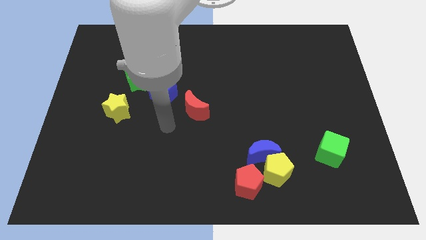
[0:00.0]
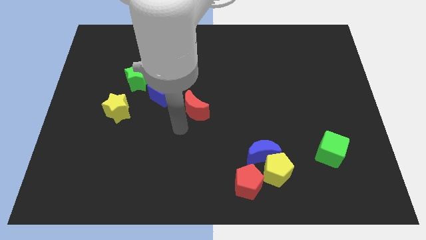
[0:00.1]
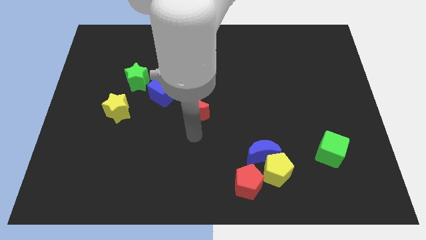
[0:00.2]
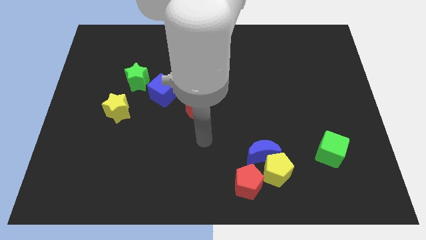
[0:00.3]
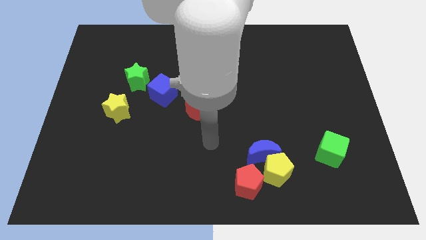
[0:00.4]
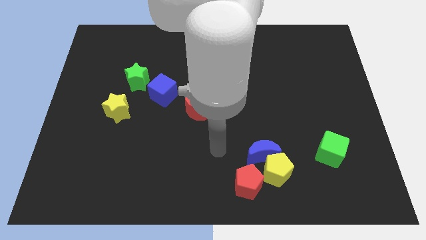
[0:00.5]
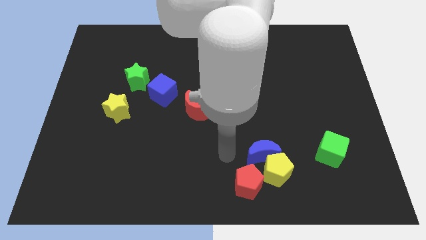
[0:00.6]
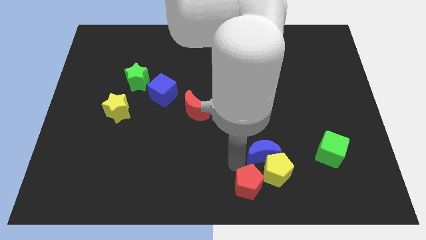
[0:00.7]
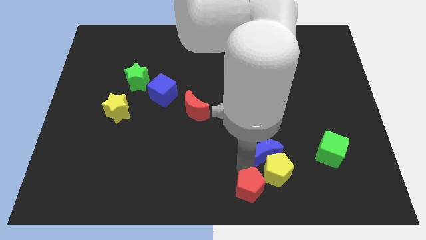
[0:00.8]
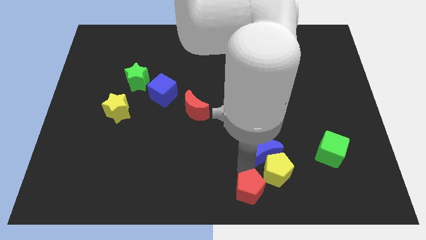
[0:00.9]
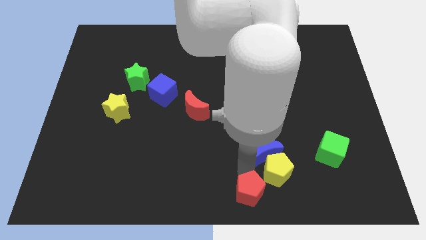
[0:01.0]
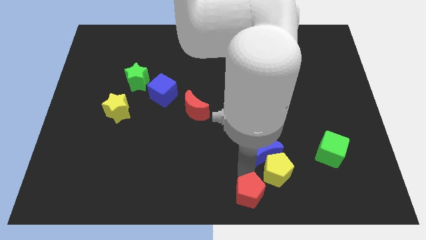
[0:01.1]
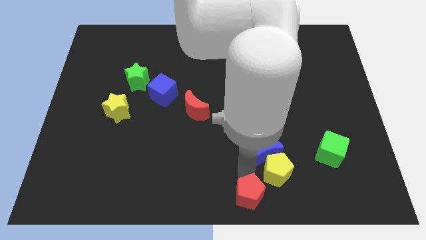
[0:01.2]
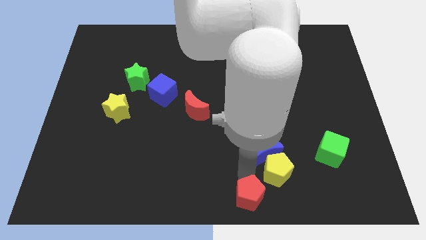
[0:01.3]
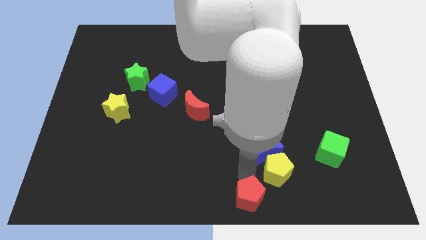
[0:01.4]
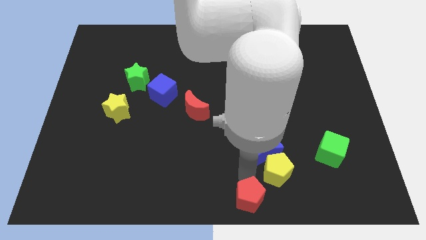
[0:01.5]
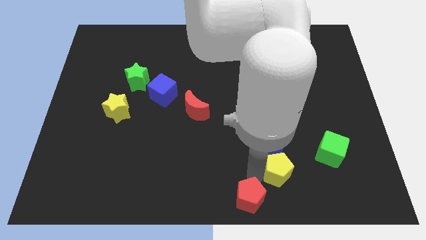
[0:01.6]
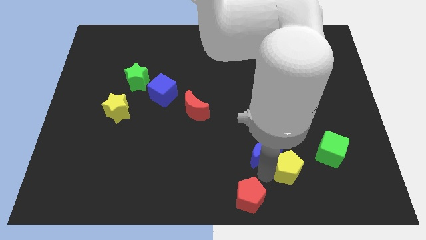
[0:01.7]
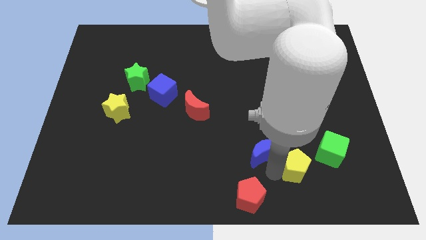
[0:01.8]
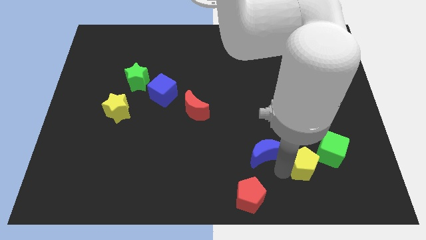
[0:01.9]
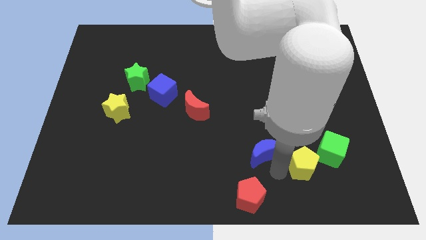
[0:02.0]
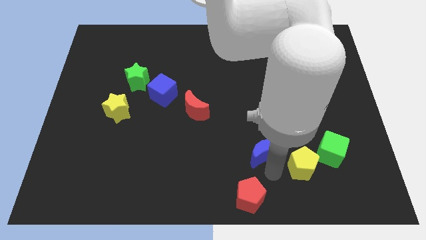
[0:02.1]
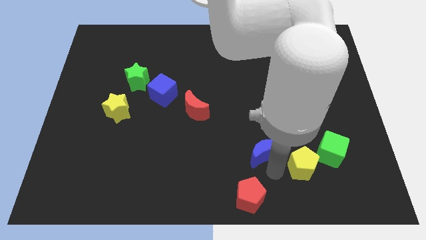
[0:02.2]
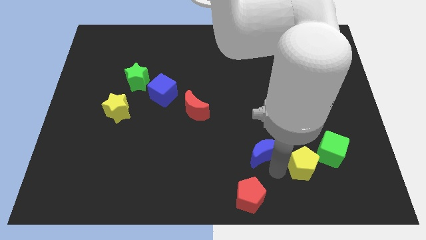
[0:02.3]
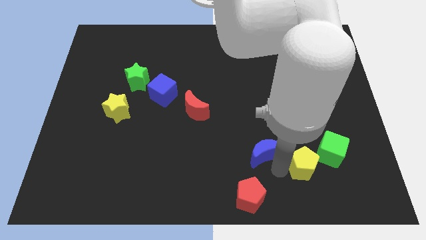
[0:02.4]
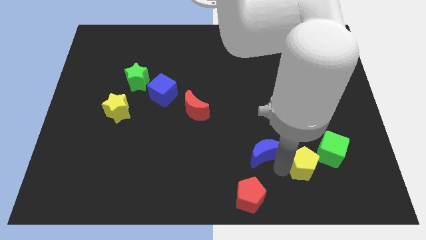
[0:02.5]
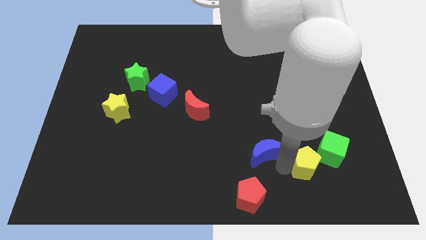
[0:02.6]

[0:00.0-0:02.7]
separate the yellow pentagon from the blue moon and red pentagon

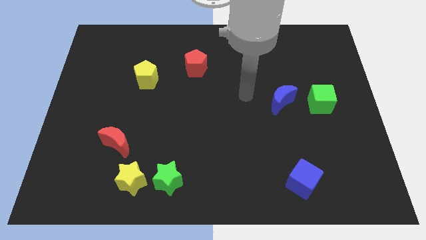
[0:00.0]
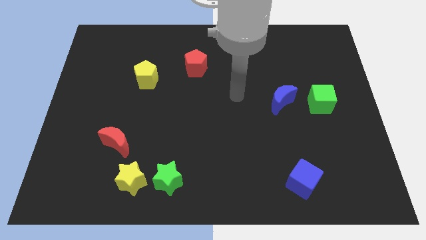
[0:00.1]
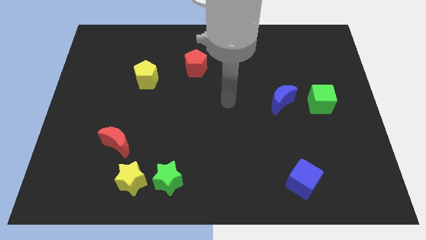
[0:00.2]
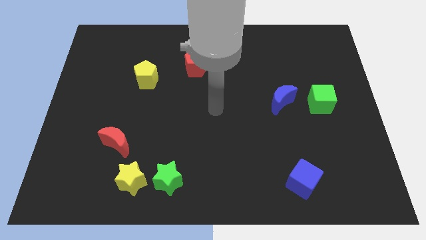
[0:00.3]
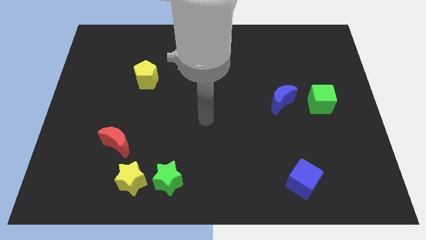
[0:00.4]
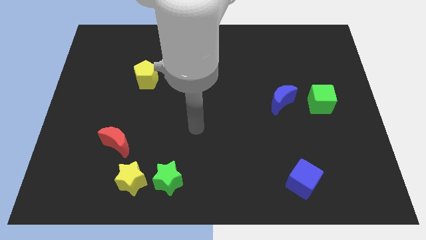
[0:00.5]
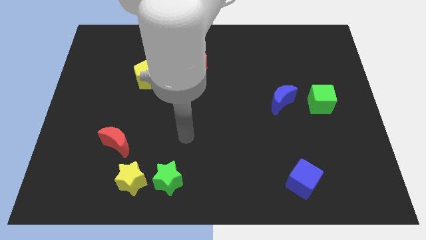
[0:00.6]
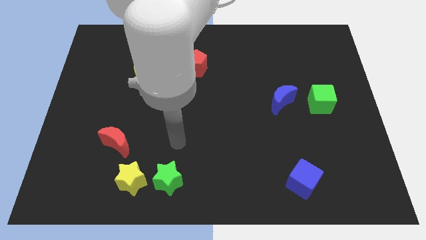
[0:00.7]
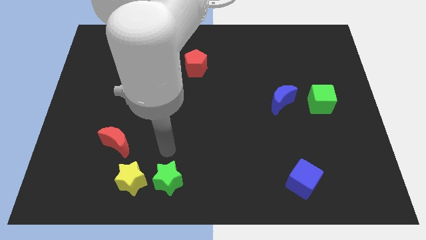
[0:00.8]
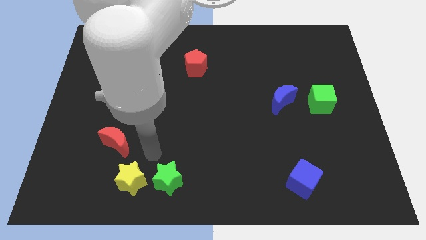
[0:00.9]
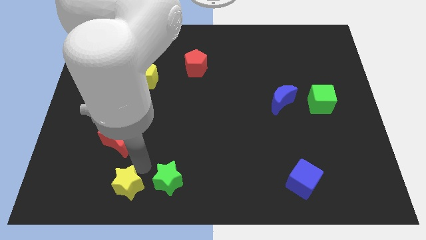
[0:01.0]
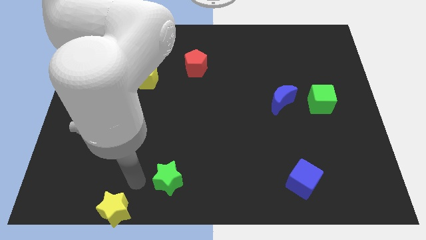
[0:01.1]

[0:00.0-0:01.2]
separate the green star from the yellow star

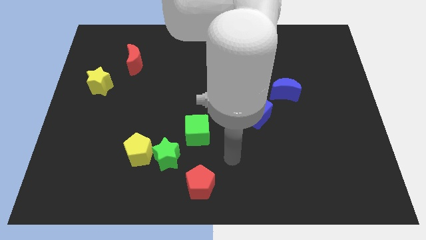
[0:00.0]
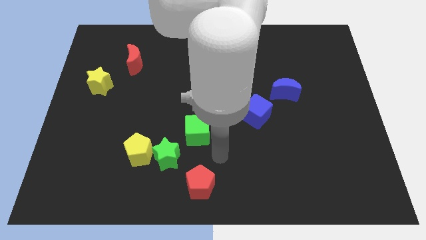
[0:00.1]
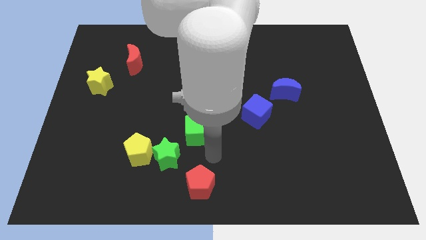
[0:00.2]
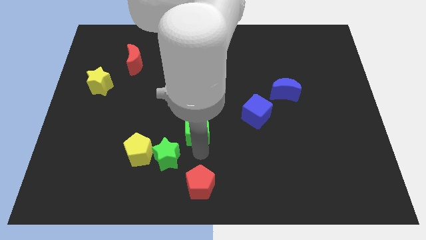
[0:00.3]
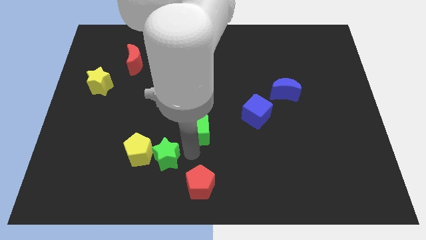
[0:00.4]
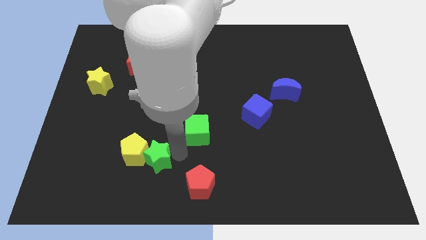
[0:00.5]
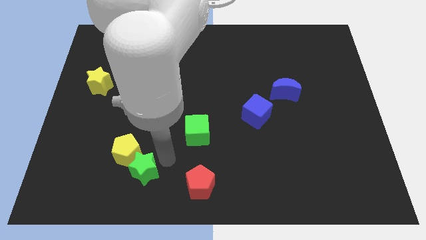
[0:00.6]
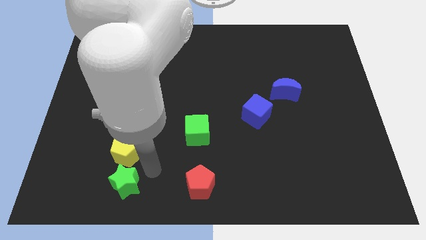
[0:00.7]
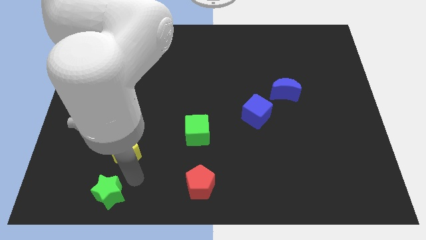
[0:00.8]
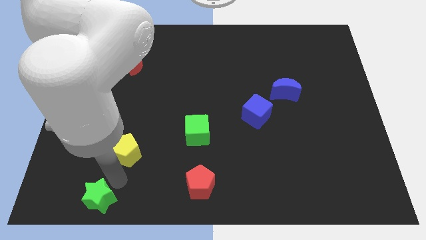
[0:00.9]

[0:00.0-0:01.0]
move the yellow pentagon away from the green star

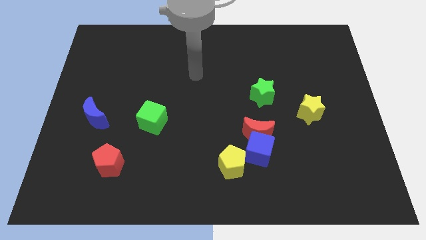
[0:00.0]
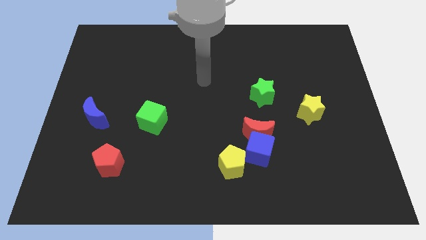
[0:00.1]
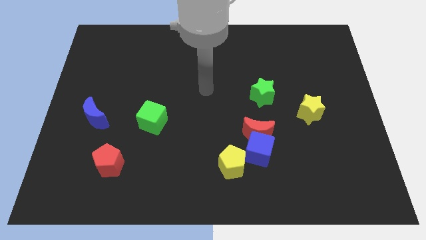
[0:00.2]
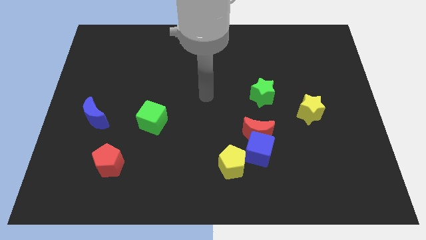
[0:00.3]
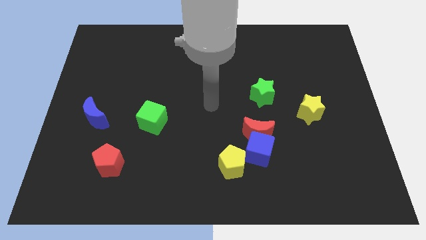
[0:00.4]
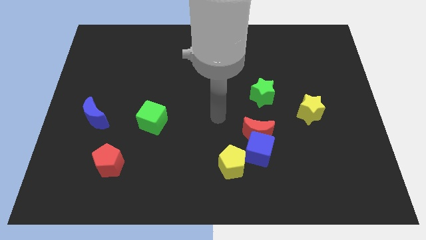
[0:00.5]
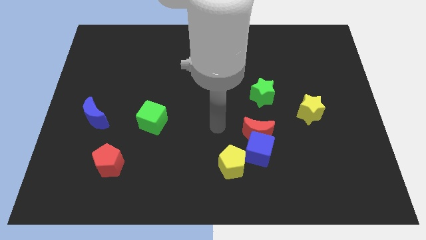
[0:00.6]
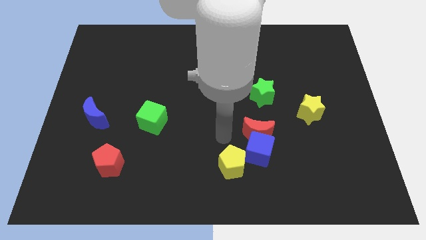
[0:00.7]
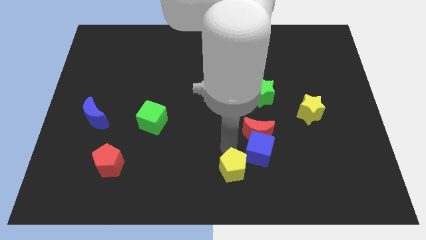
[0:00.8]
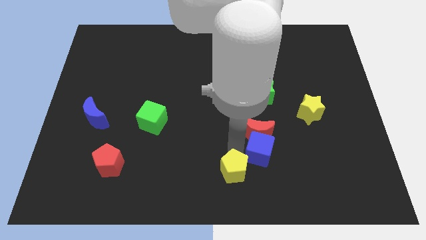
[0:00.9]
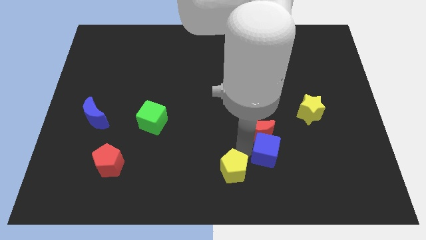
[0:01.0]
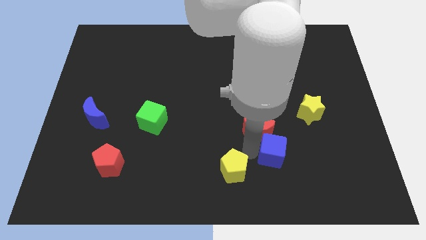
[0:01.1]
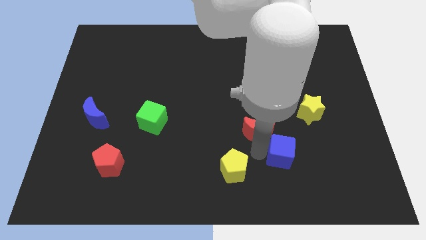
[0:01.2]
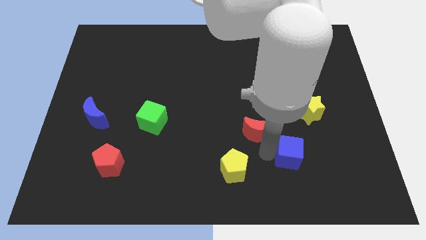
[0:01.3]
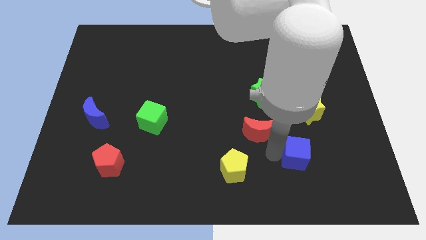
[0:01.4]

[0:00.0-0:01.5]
pull the blue cube apart from the red moon and yellow pentagon

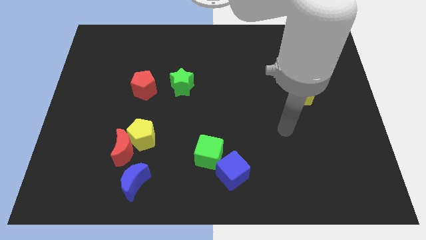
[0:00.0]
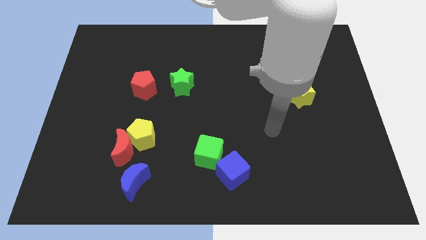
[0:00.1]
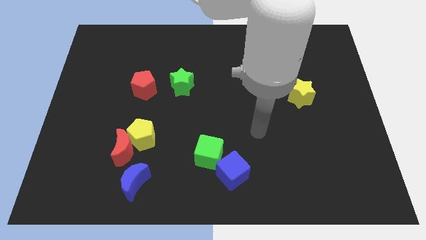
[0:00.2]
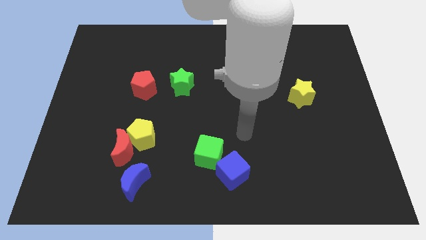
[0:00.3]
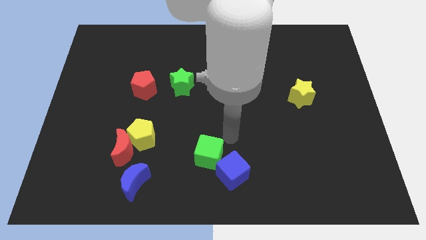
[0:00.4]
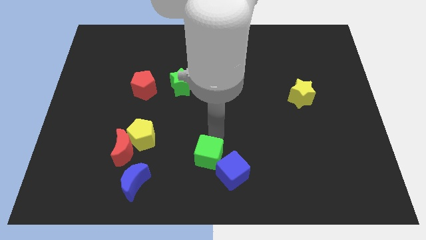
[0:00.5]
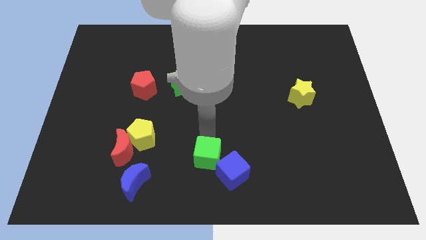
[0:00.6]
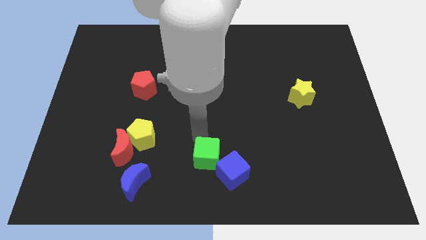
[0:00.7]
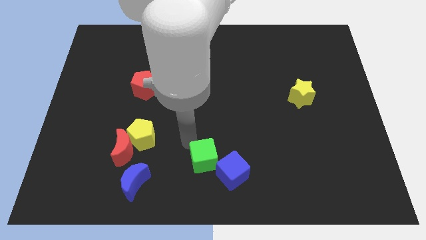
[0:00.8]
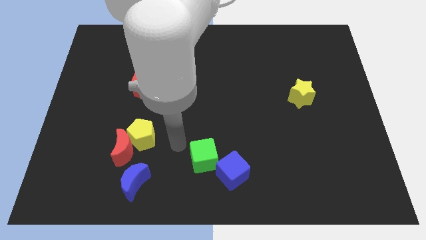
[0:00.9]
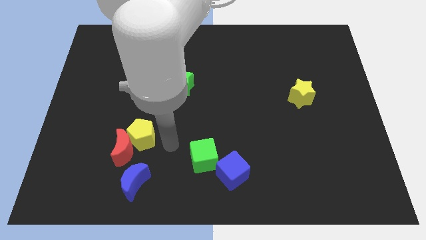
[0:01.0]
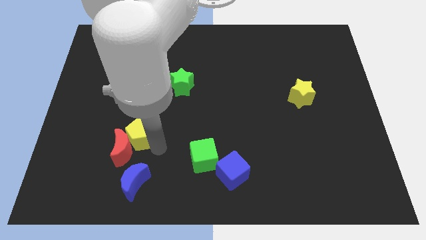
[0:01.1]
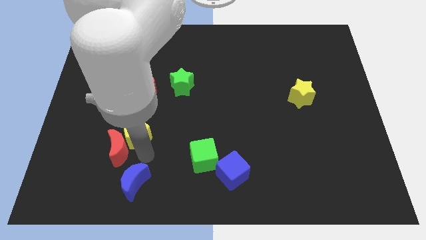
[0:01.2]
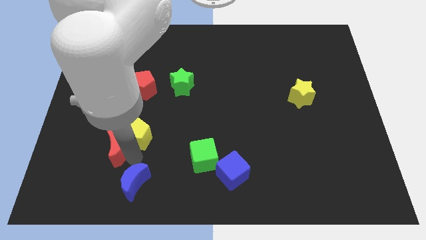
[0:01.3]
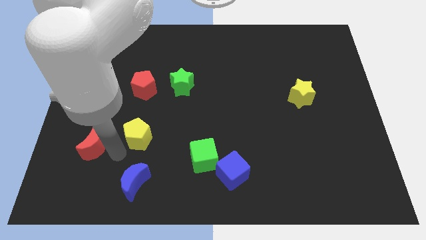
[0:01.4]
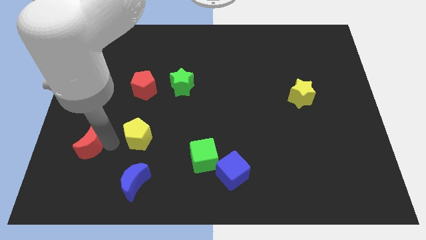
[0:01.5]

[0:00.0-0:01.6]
pull the yellow pentagon apart from the red moon

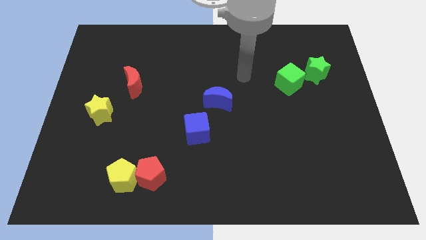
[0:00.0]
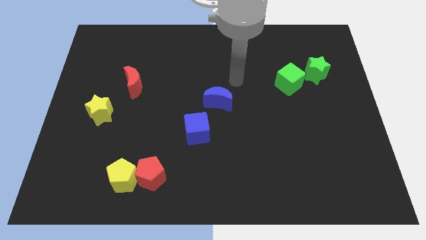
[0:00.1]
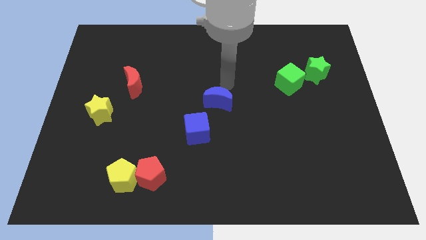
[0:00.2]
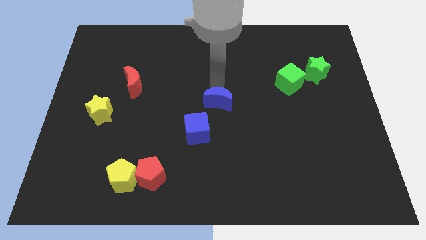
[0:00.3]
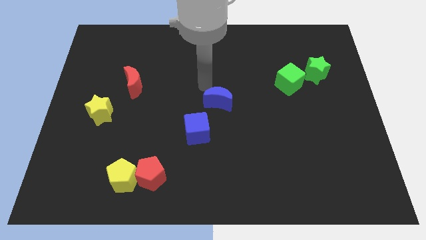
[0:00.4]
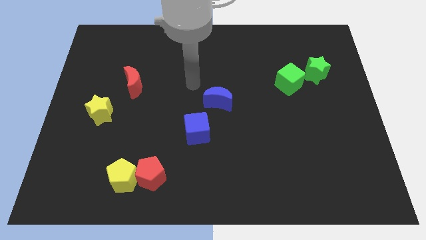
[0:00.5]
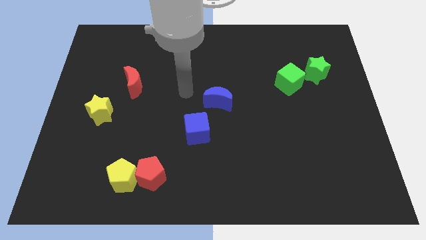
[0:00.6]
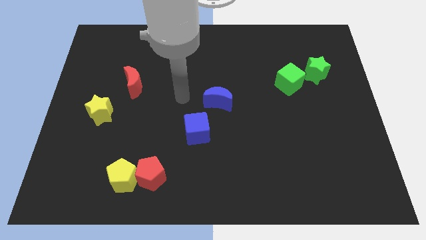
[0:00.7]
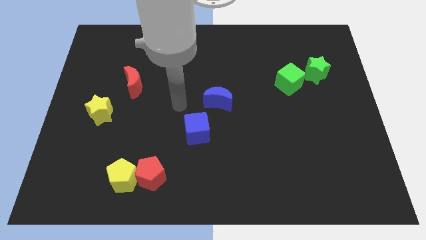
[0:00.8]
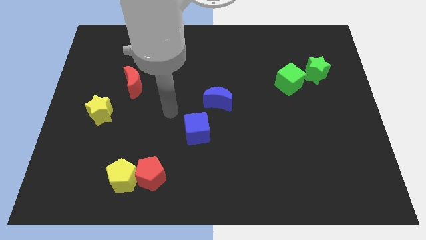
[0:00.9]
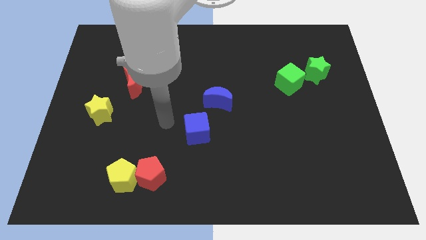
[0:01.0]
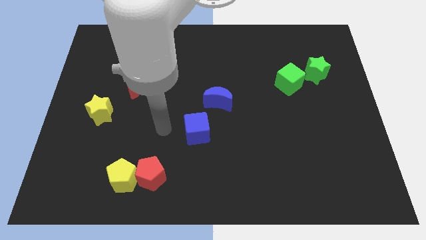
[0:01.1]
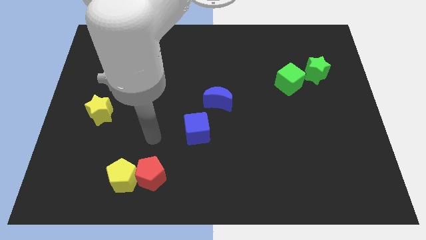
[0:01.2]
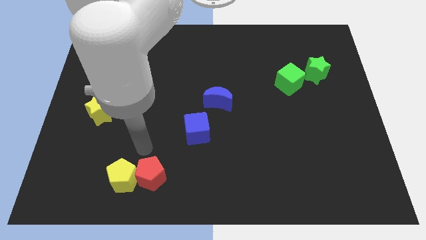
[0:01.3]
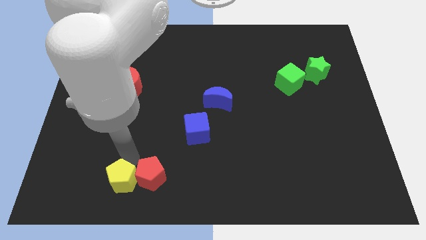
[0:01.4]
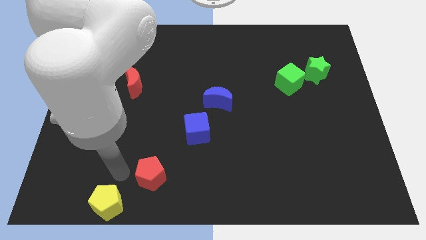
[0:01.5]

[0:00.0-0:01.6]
pull the red pentagon apart from the yellow pentagon
